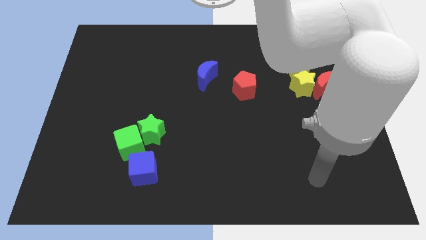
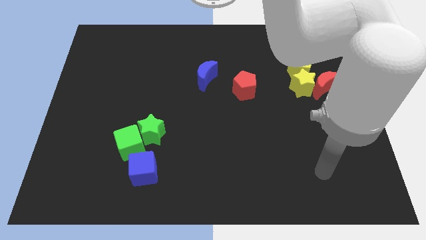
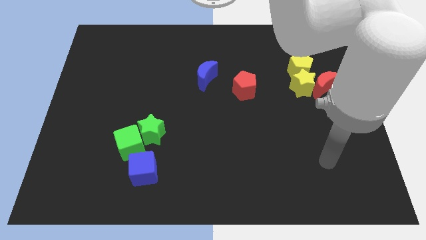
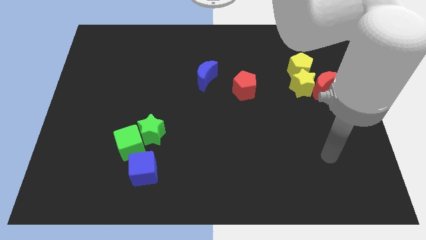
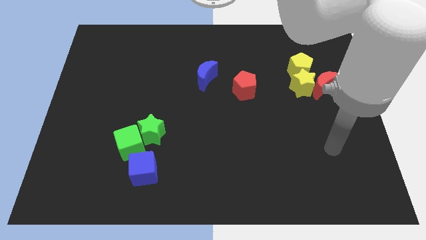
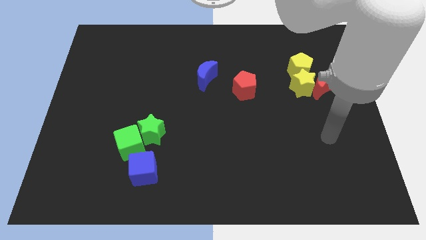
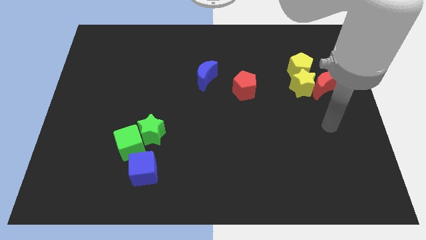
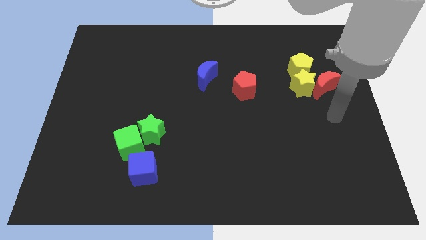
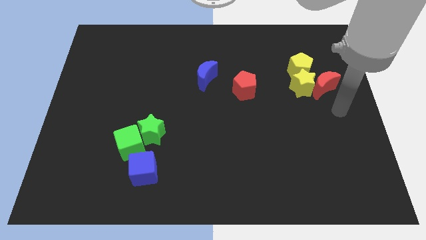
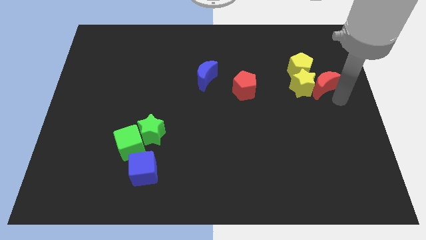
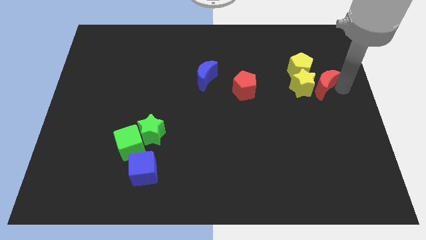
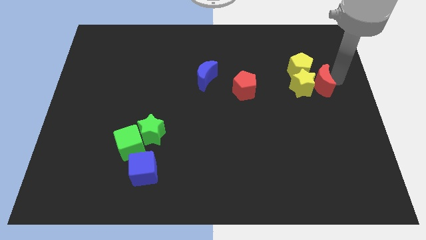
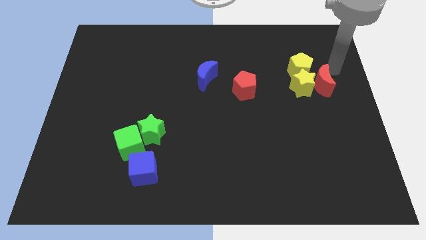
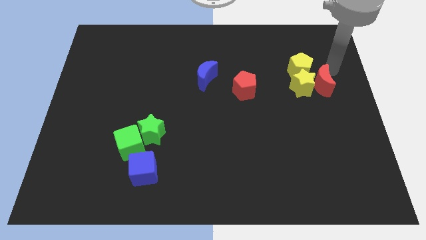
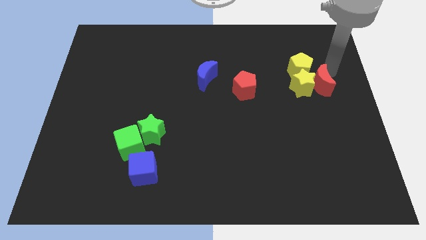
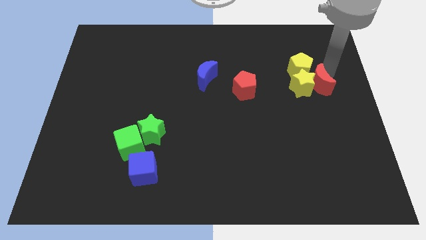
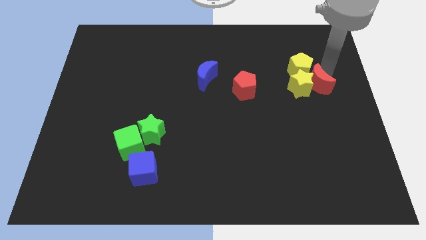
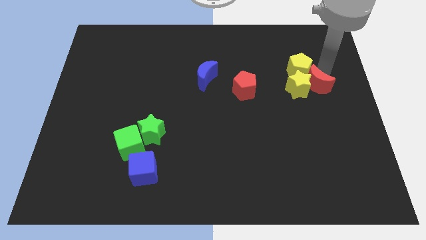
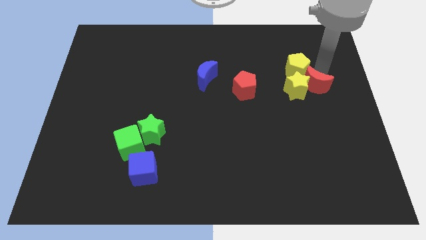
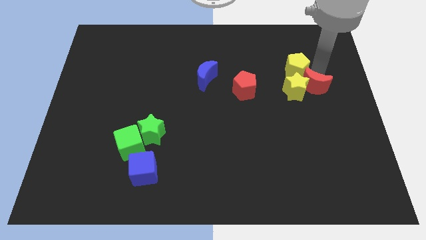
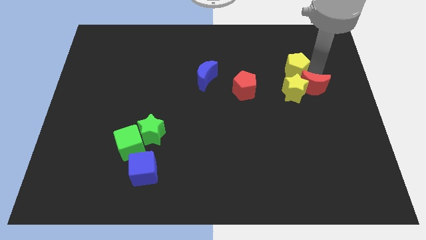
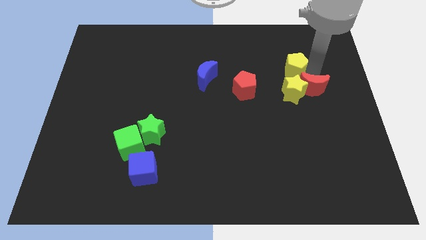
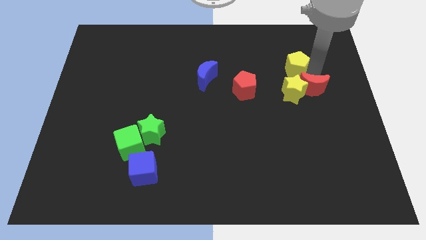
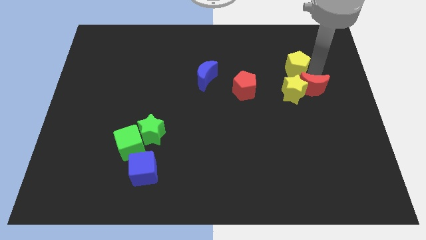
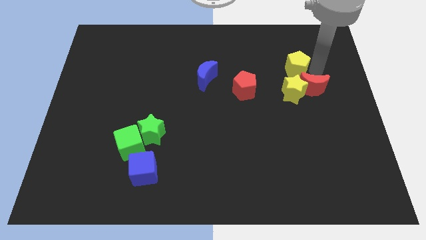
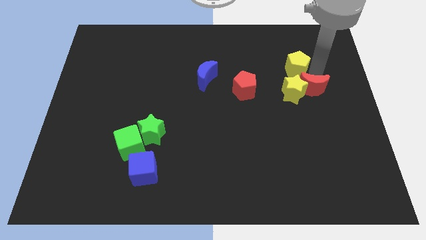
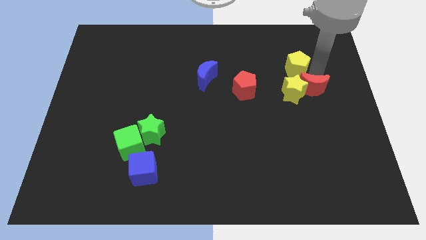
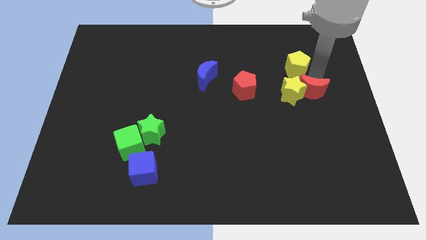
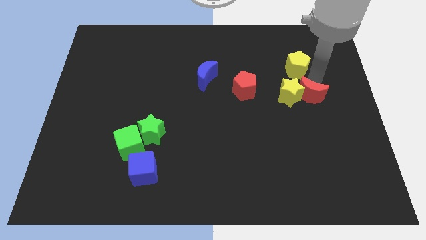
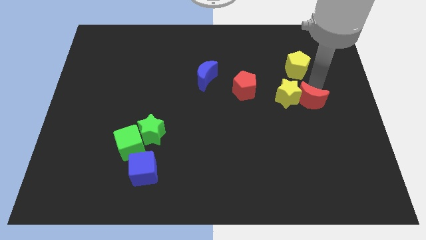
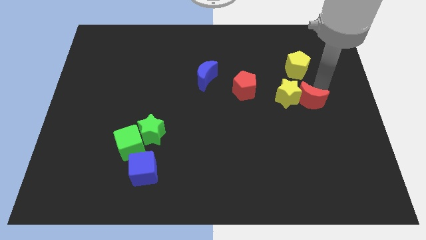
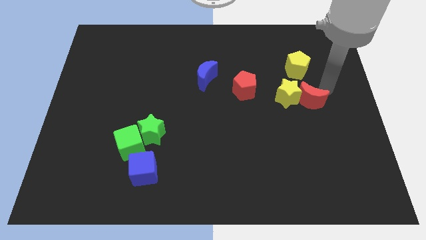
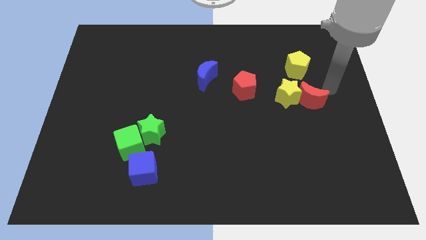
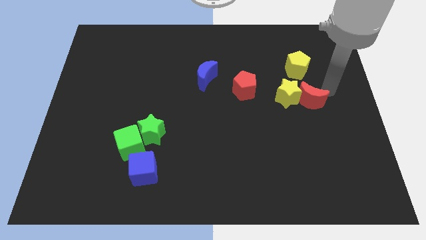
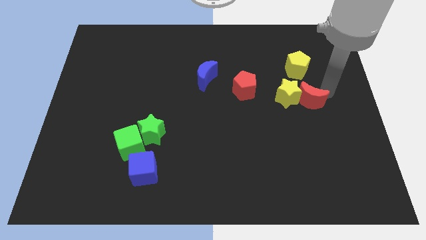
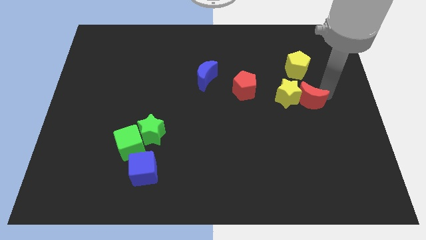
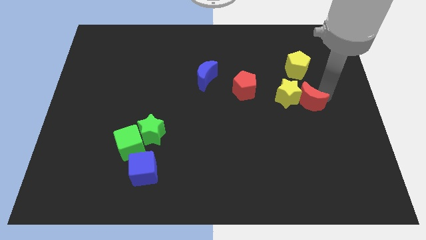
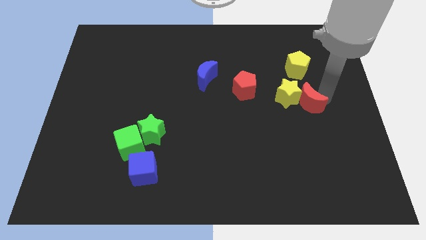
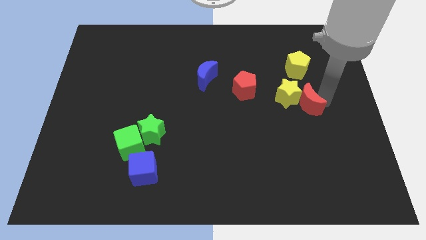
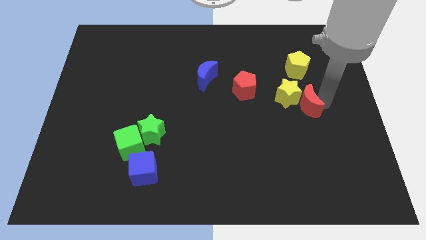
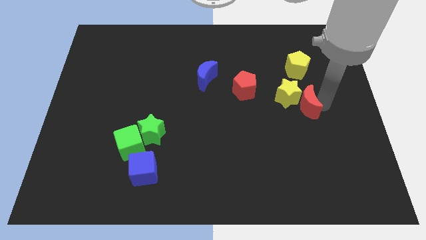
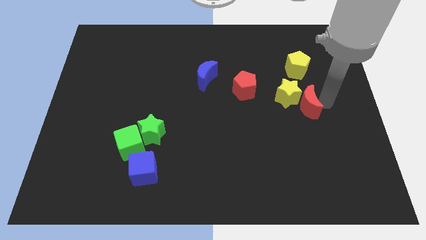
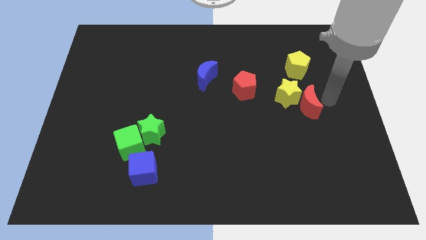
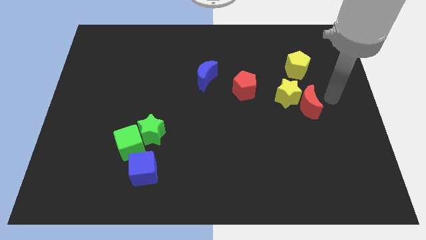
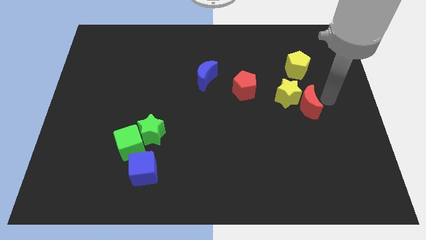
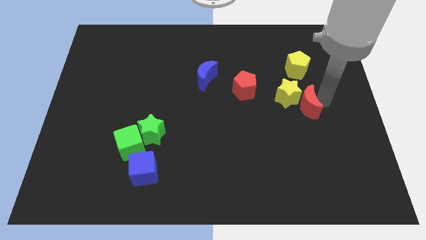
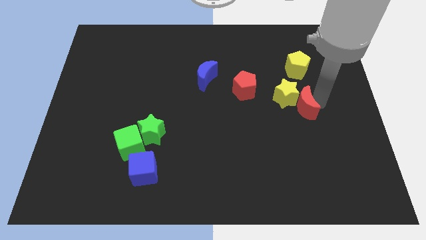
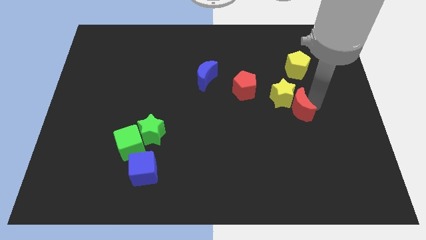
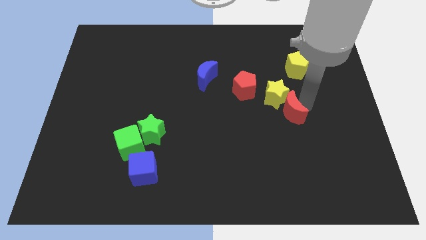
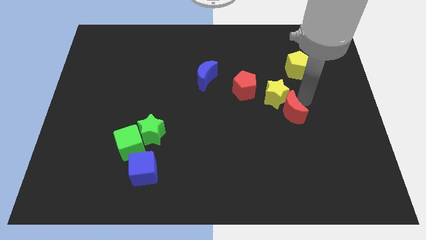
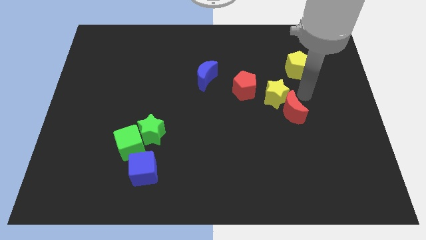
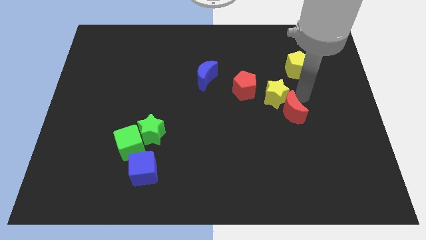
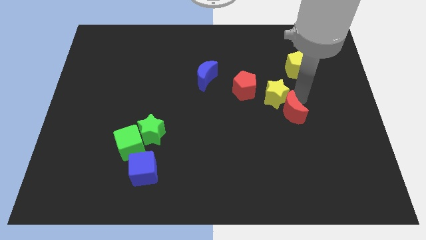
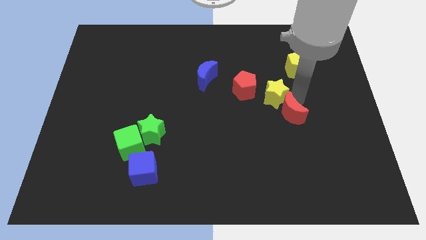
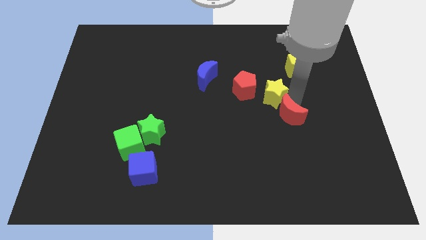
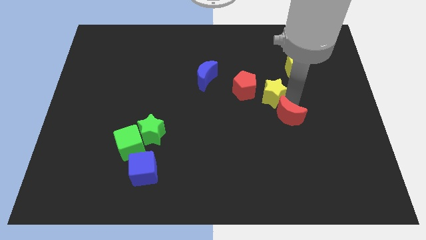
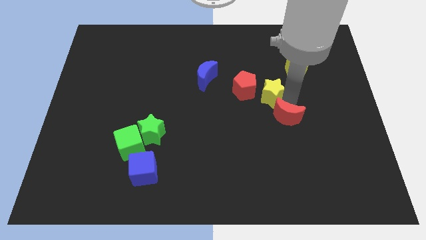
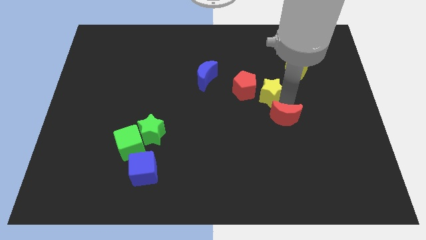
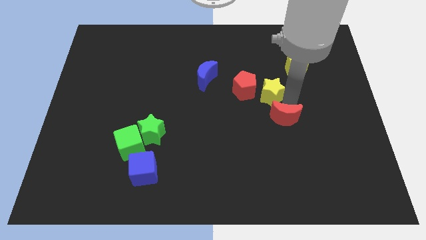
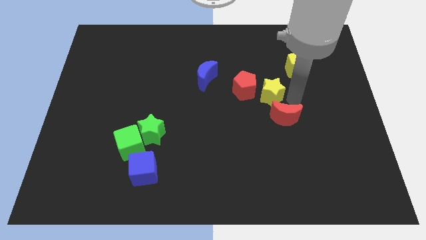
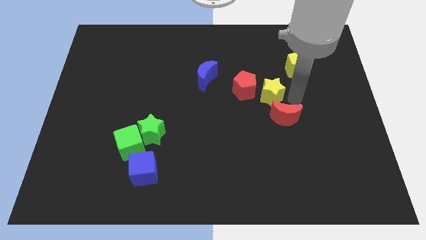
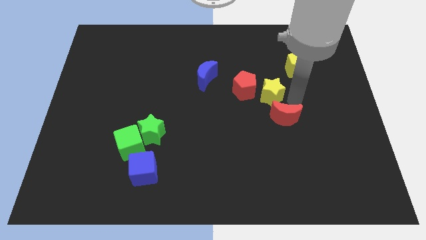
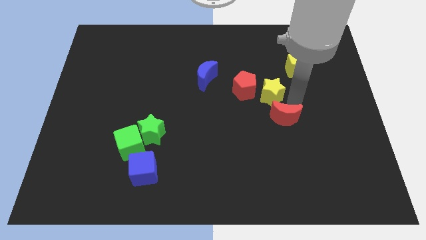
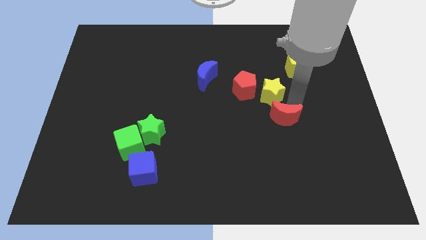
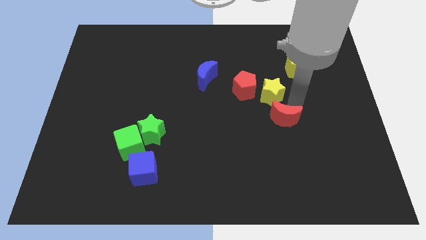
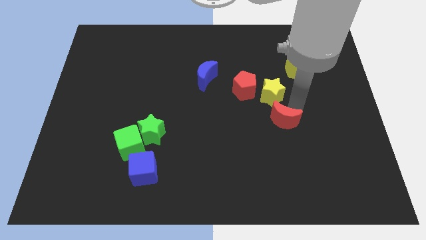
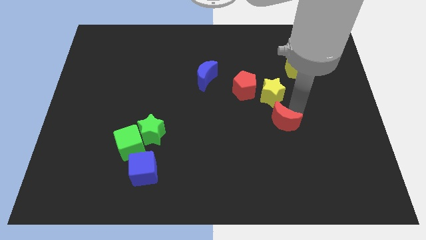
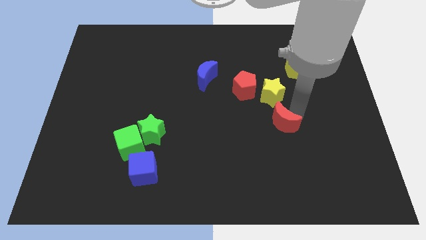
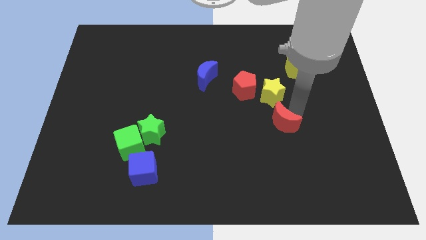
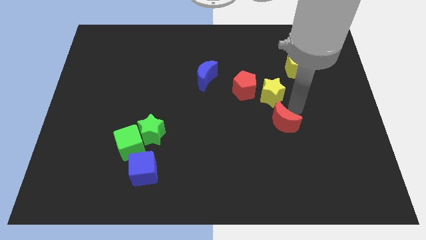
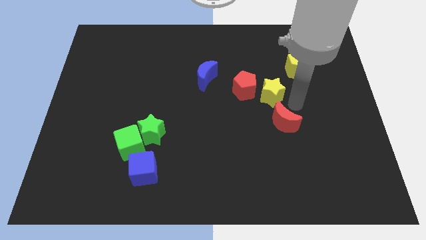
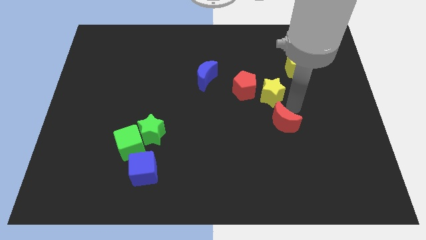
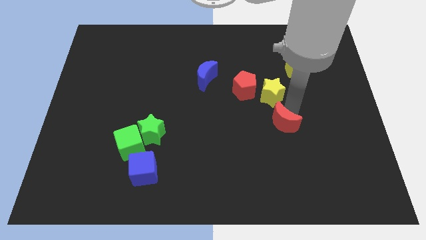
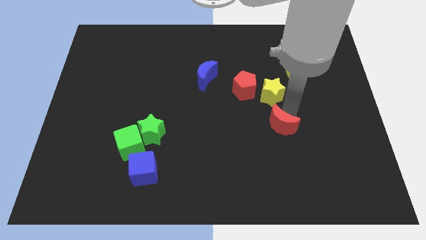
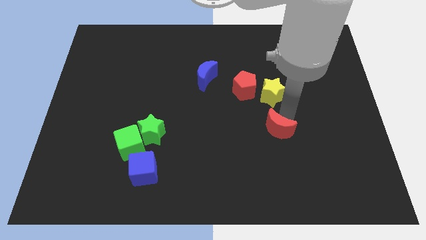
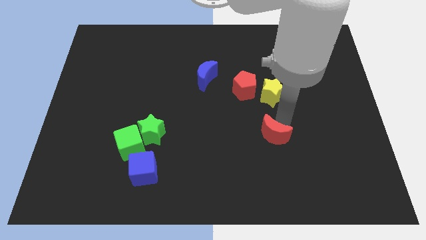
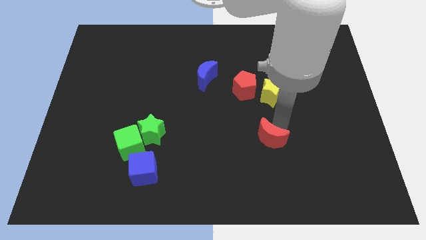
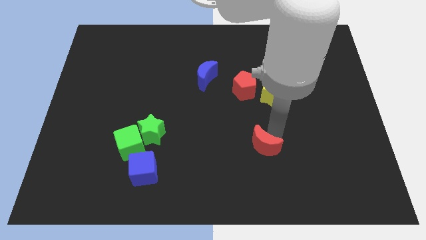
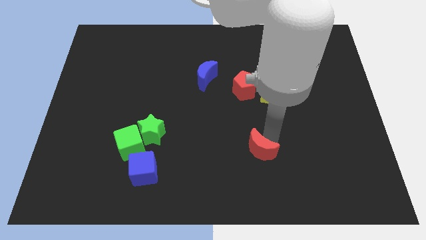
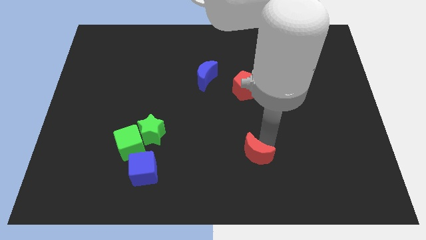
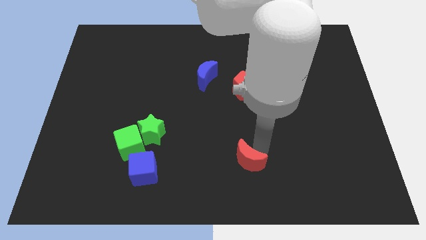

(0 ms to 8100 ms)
put the red moon to the bottom side
